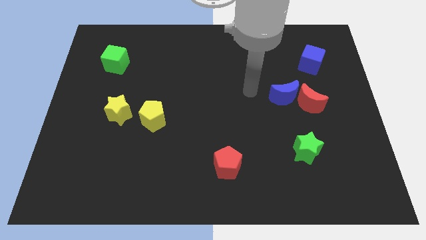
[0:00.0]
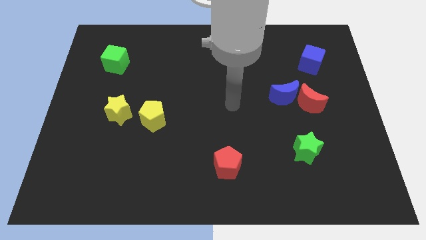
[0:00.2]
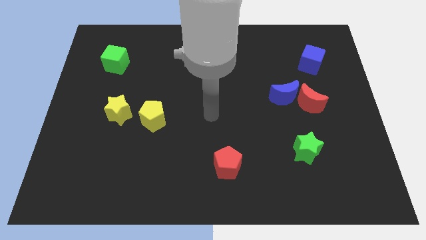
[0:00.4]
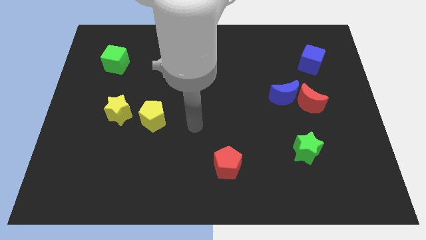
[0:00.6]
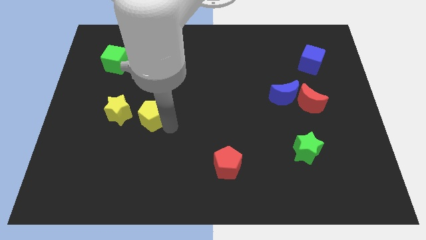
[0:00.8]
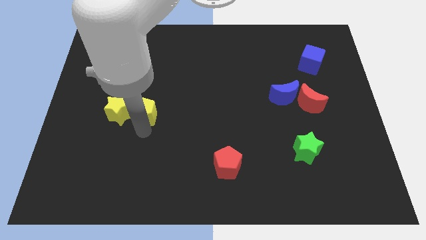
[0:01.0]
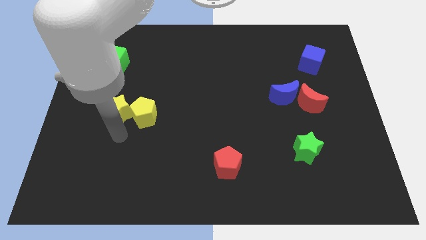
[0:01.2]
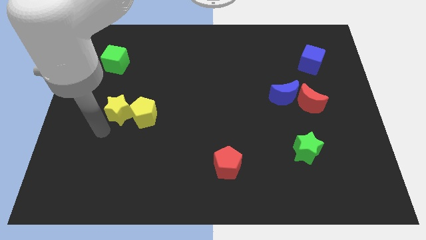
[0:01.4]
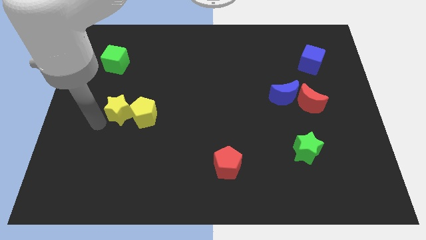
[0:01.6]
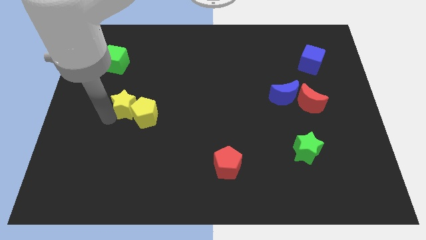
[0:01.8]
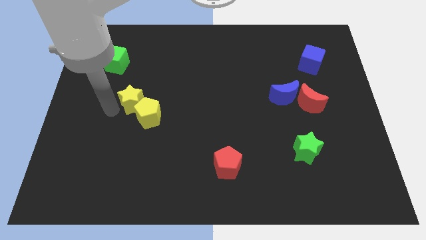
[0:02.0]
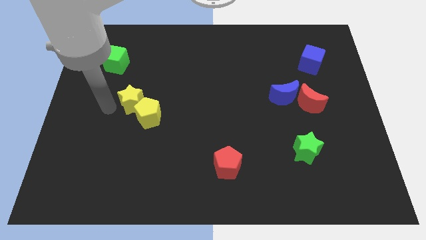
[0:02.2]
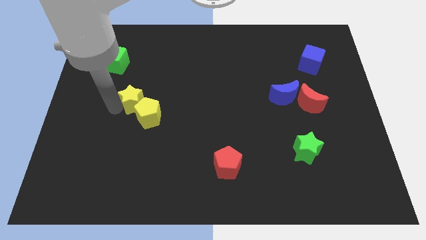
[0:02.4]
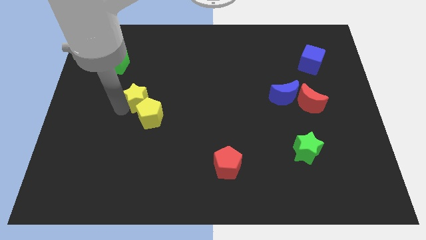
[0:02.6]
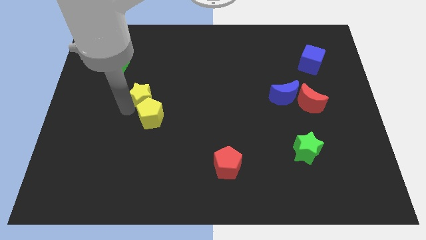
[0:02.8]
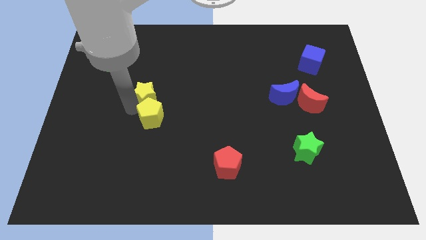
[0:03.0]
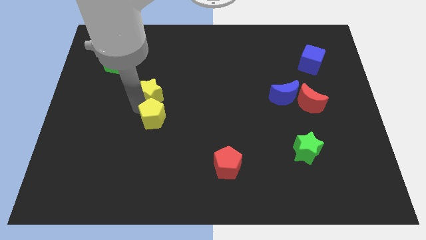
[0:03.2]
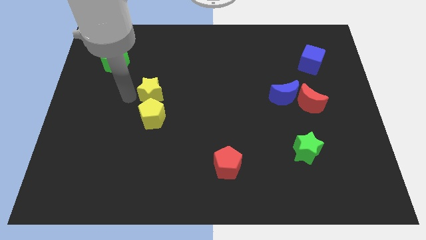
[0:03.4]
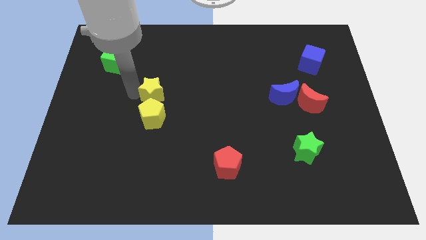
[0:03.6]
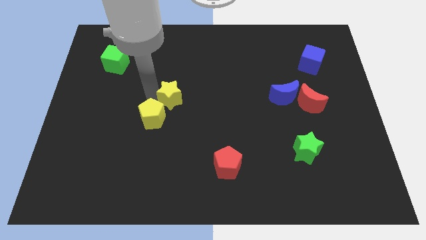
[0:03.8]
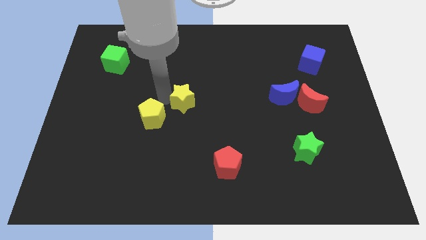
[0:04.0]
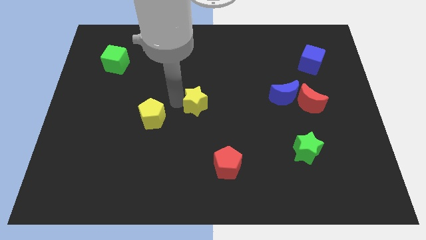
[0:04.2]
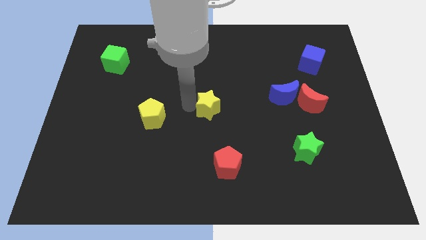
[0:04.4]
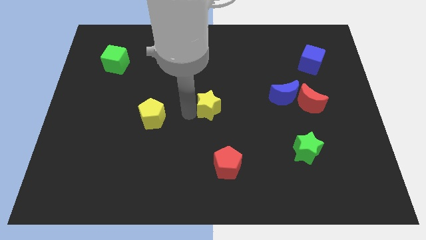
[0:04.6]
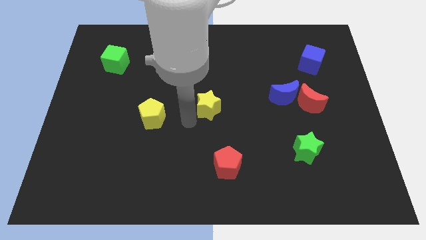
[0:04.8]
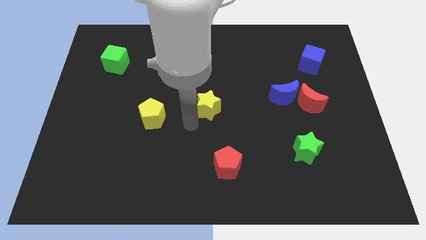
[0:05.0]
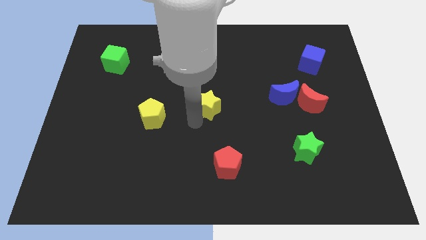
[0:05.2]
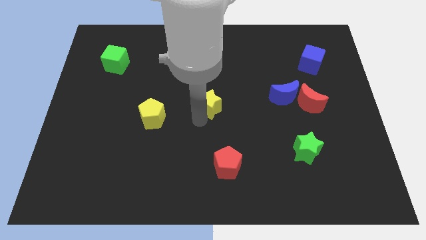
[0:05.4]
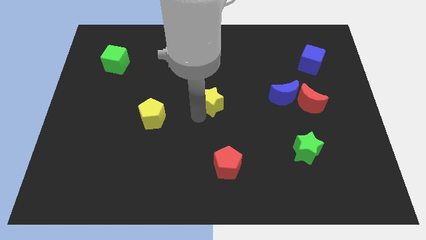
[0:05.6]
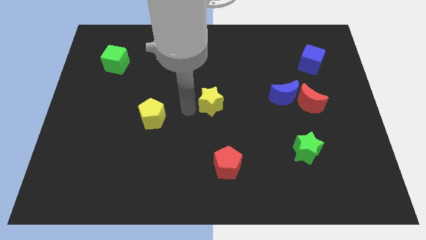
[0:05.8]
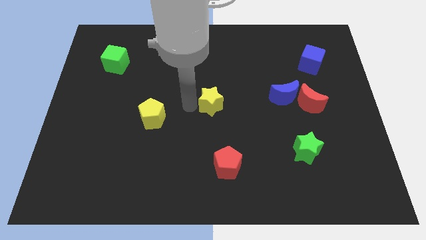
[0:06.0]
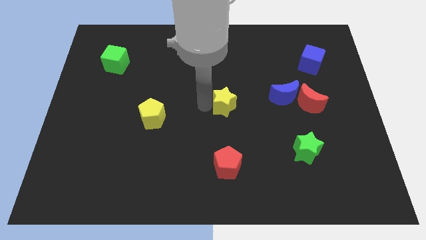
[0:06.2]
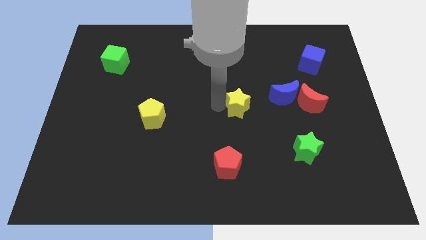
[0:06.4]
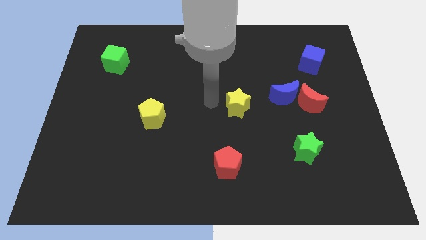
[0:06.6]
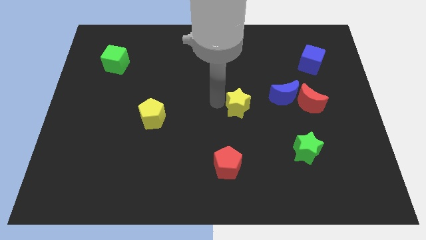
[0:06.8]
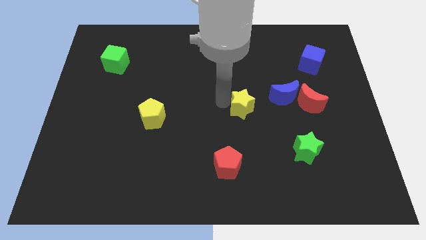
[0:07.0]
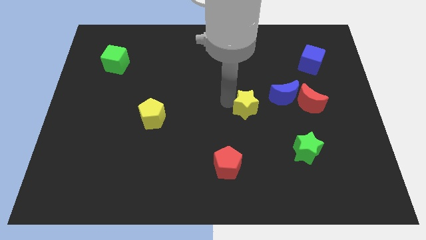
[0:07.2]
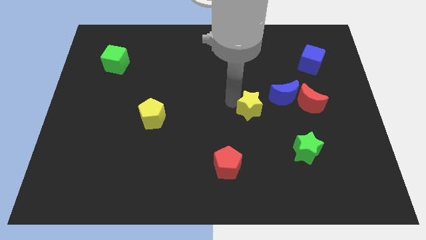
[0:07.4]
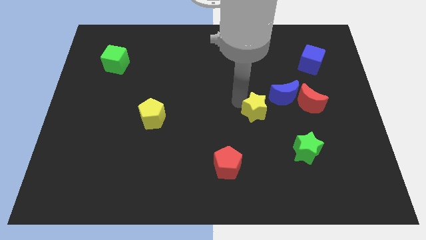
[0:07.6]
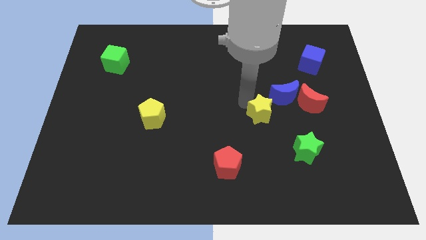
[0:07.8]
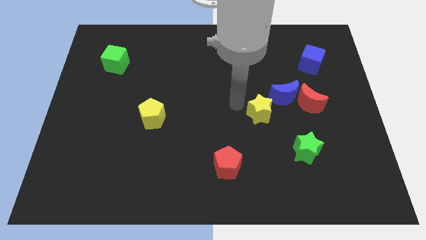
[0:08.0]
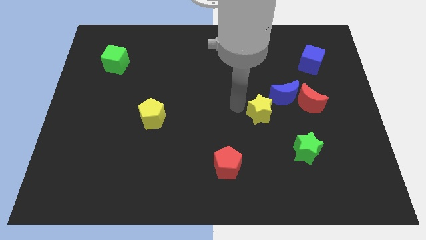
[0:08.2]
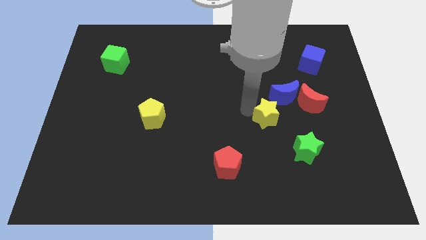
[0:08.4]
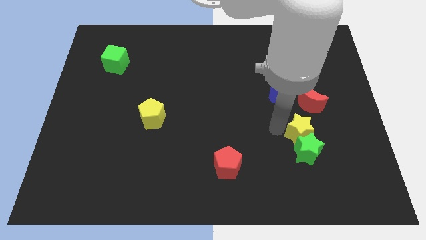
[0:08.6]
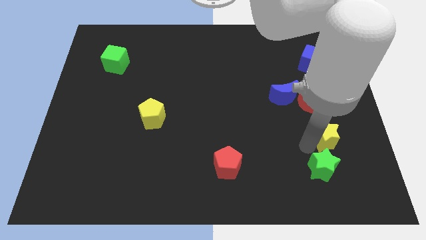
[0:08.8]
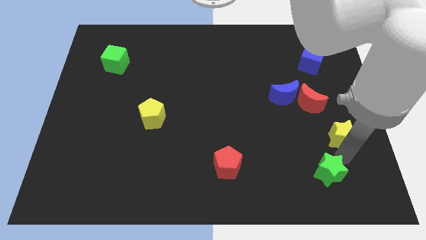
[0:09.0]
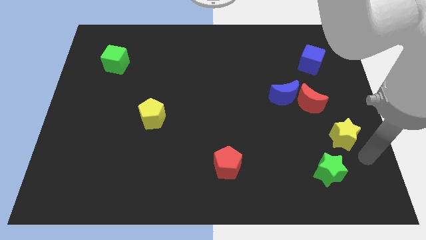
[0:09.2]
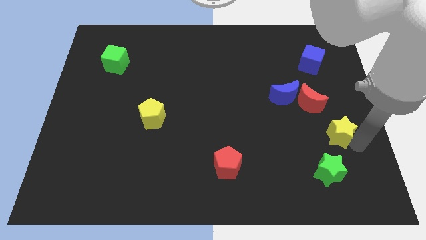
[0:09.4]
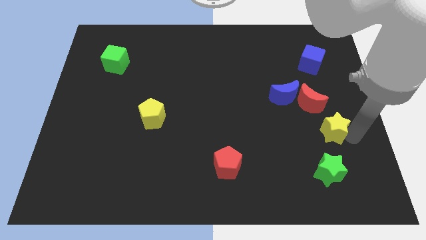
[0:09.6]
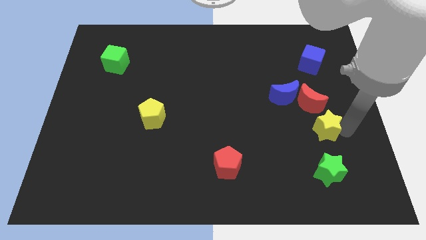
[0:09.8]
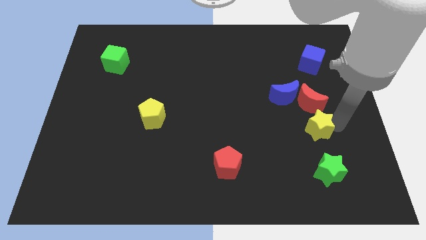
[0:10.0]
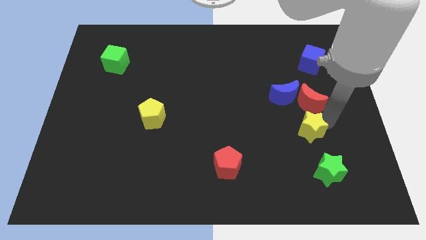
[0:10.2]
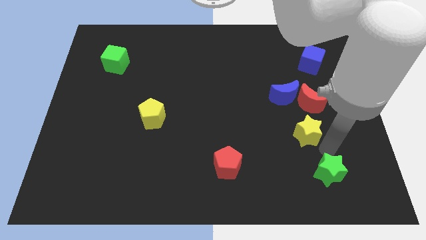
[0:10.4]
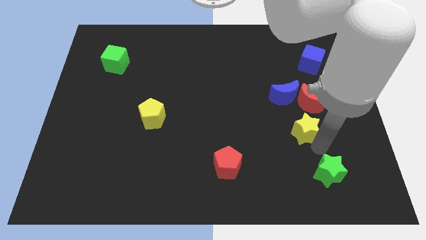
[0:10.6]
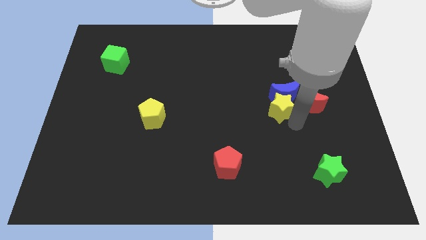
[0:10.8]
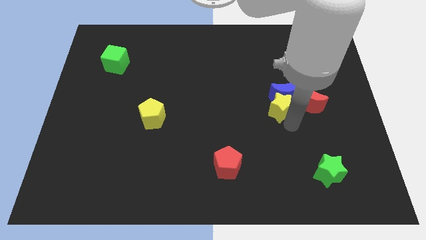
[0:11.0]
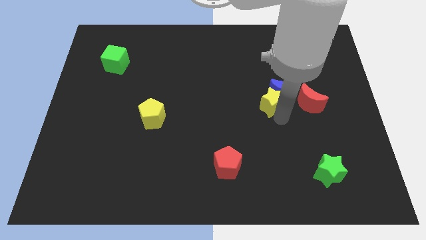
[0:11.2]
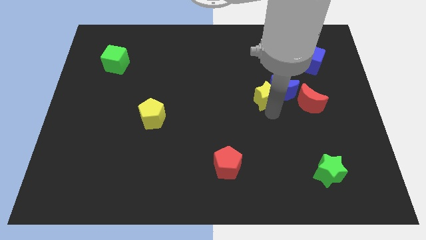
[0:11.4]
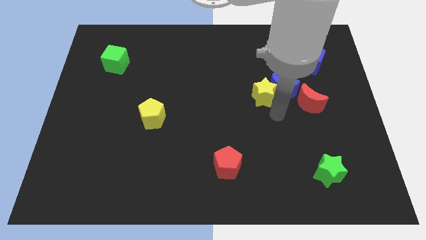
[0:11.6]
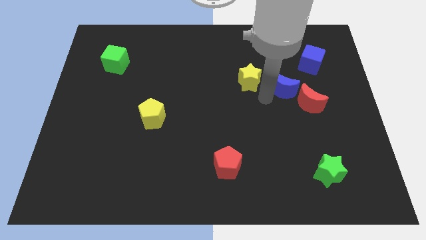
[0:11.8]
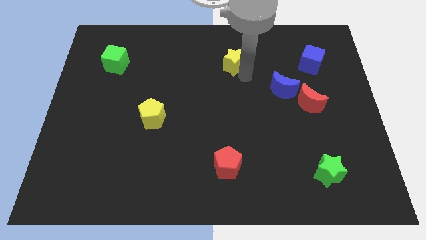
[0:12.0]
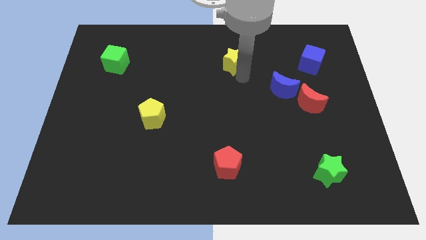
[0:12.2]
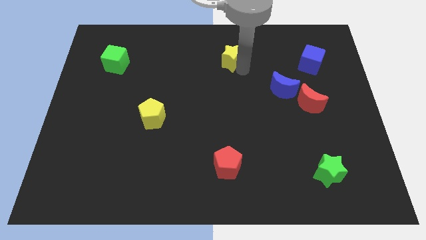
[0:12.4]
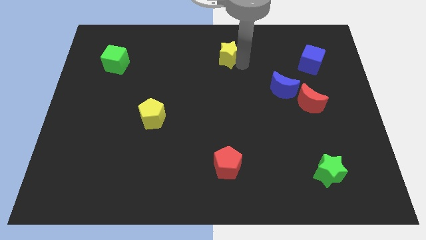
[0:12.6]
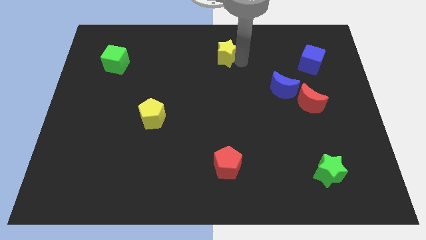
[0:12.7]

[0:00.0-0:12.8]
push the yellow star to the top side
